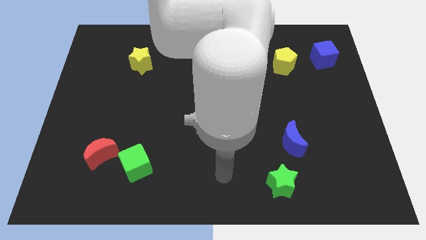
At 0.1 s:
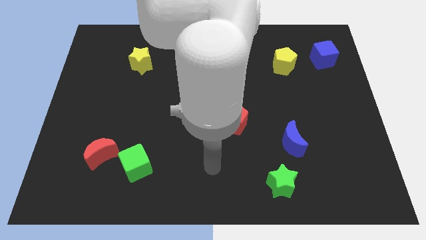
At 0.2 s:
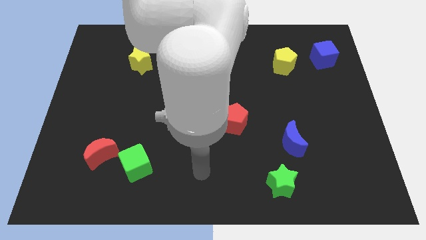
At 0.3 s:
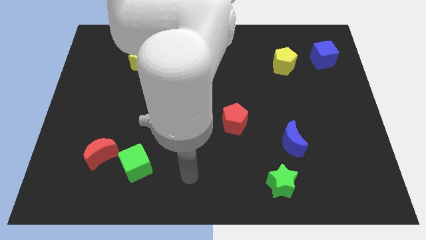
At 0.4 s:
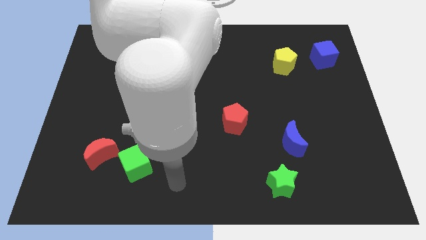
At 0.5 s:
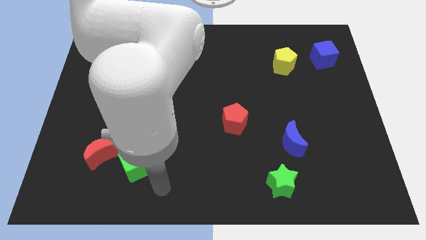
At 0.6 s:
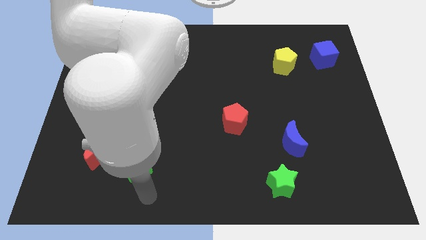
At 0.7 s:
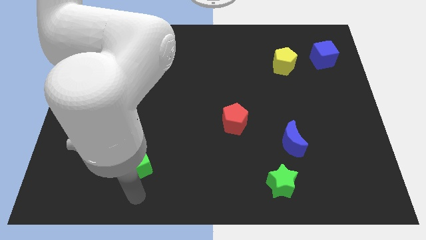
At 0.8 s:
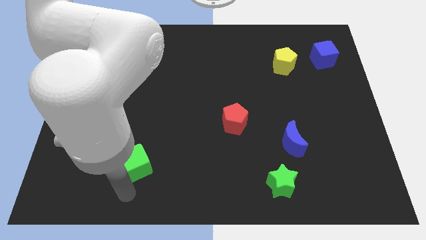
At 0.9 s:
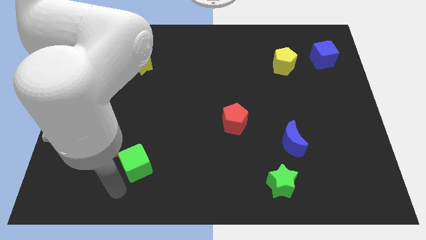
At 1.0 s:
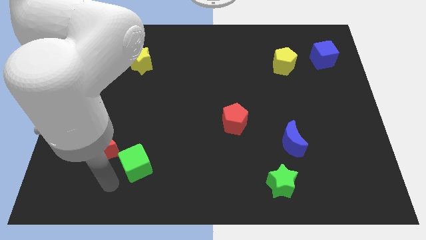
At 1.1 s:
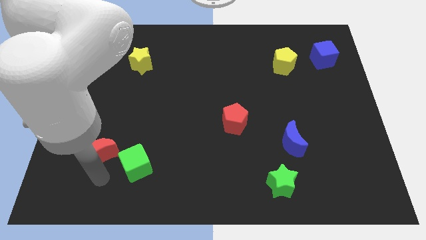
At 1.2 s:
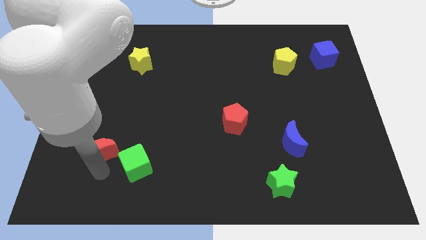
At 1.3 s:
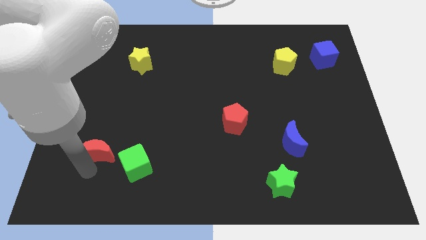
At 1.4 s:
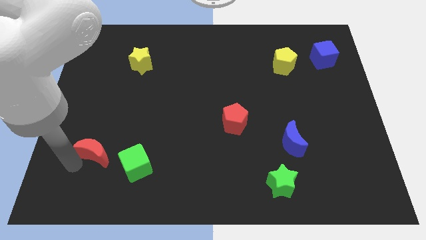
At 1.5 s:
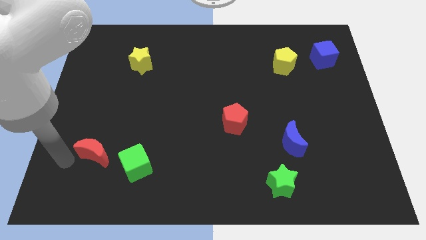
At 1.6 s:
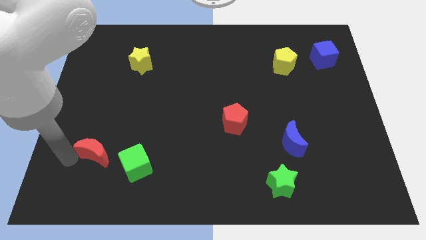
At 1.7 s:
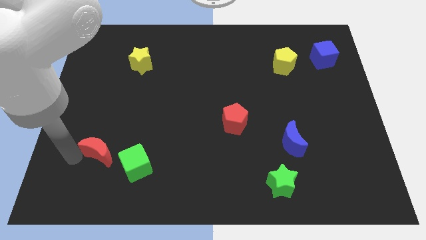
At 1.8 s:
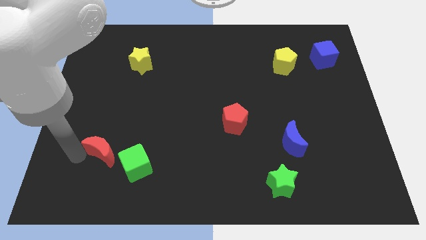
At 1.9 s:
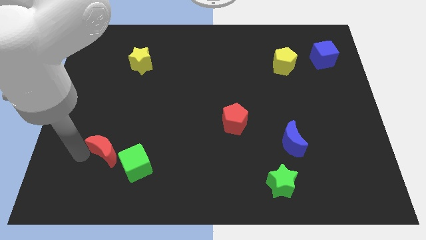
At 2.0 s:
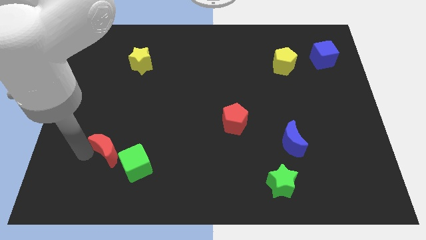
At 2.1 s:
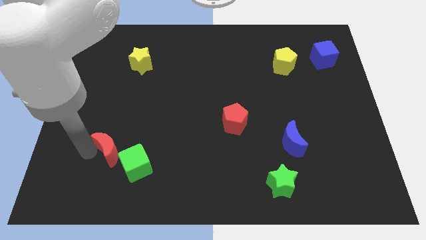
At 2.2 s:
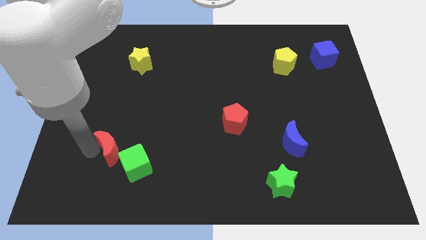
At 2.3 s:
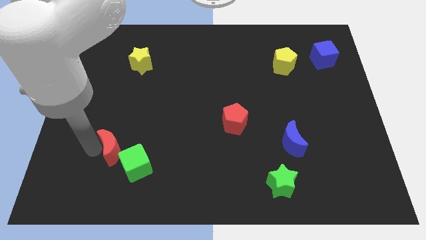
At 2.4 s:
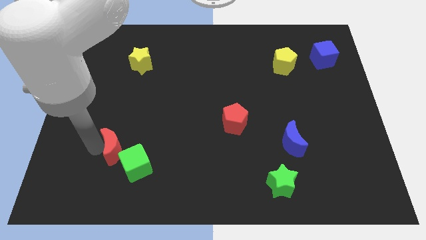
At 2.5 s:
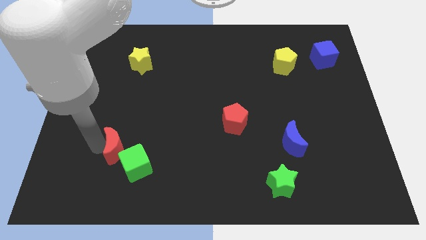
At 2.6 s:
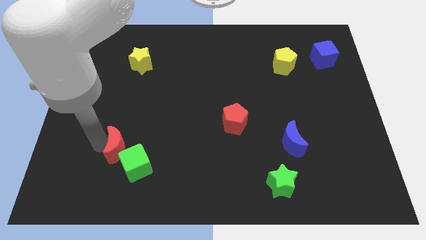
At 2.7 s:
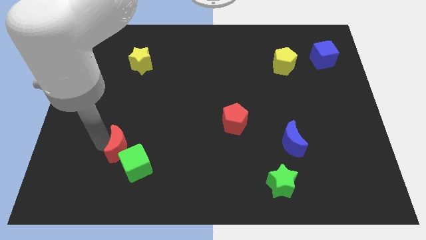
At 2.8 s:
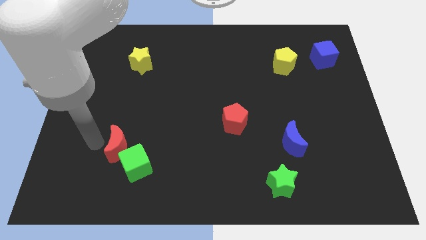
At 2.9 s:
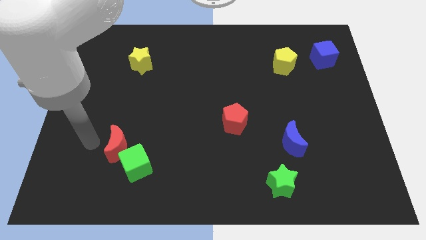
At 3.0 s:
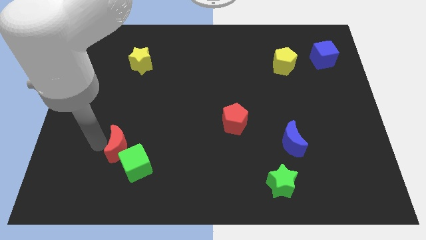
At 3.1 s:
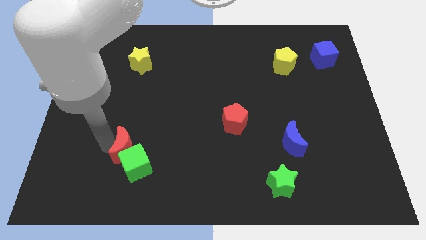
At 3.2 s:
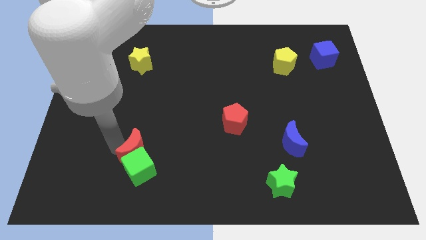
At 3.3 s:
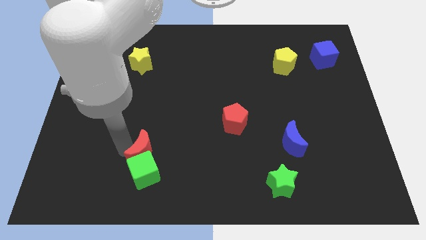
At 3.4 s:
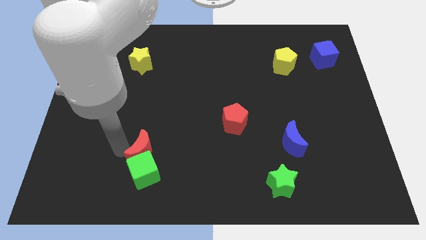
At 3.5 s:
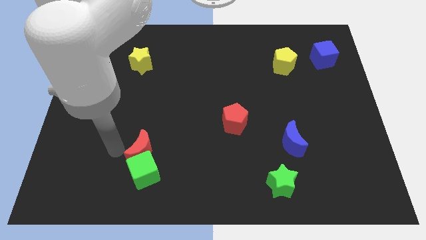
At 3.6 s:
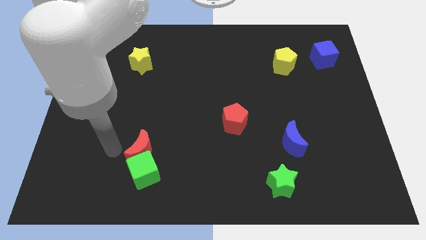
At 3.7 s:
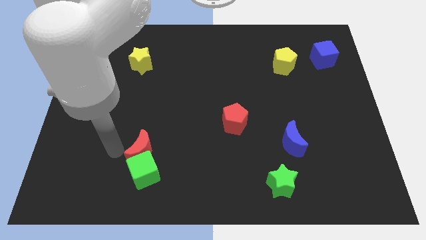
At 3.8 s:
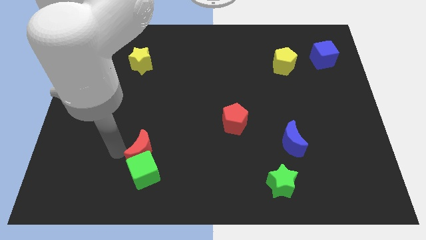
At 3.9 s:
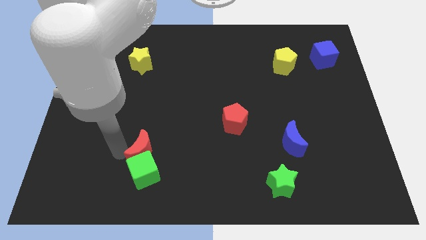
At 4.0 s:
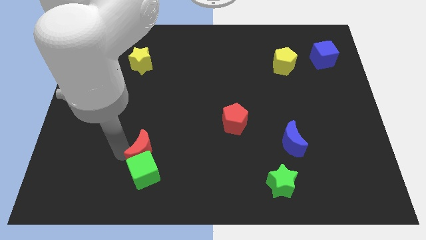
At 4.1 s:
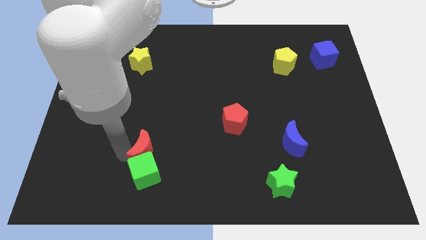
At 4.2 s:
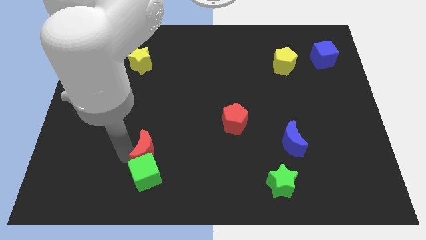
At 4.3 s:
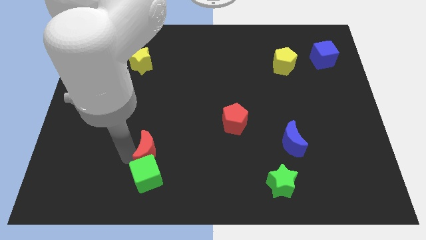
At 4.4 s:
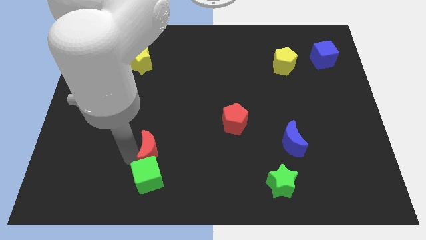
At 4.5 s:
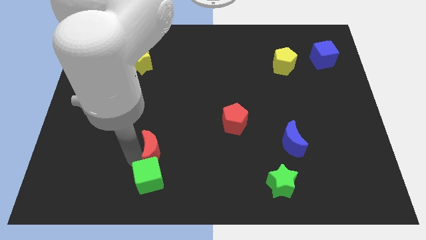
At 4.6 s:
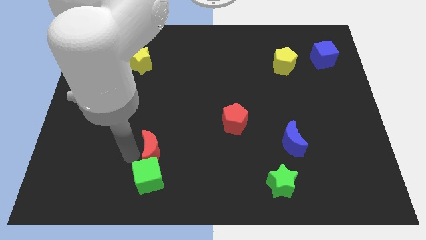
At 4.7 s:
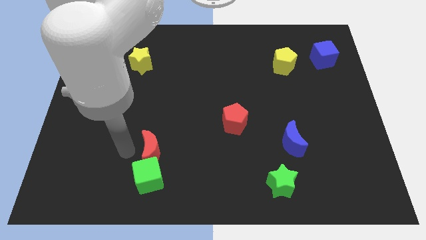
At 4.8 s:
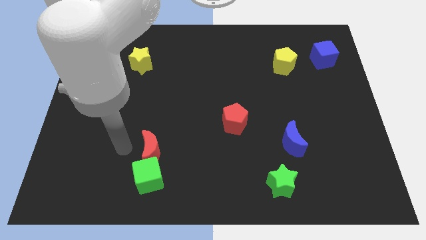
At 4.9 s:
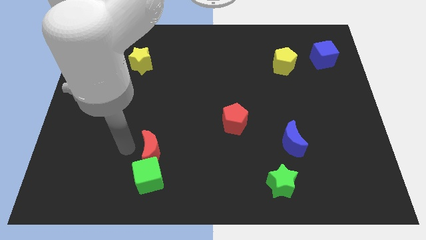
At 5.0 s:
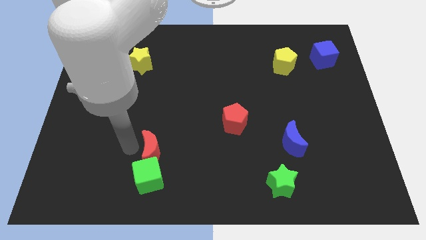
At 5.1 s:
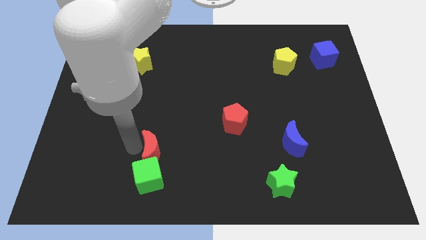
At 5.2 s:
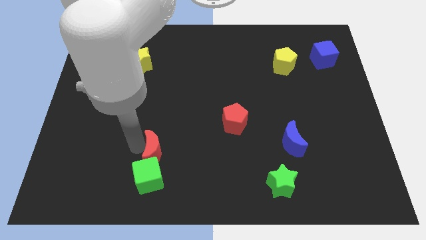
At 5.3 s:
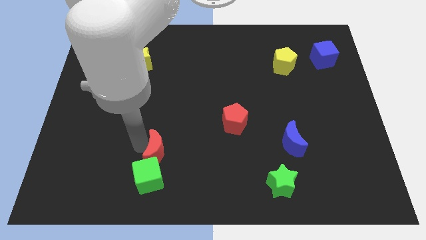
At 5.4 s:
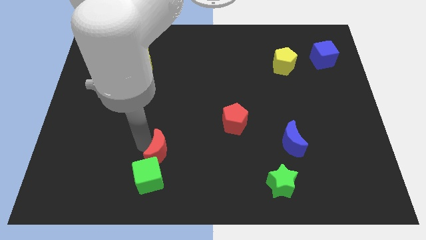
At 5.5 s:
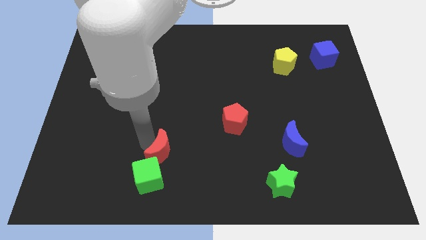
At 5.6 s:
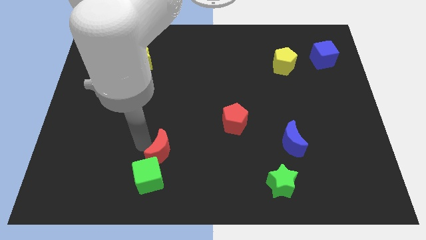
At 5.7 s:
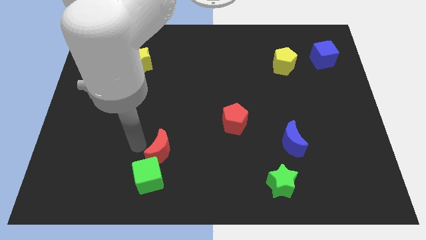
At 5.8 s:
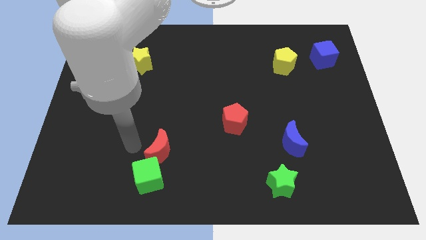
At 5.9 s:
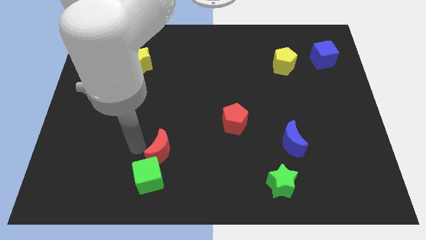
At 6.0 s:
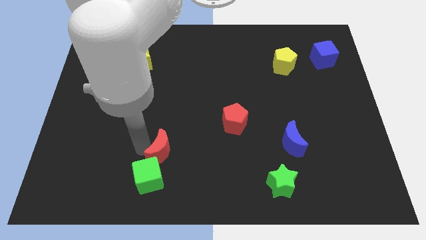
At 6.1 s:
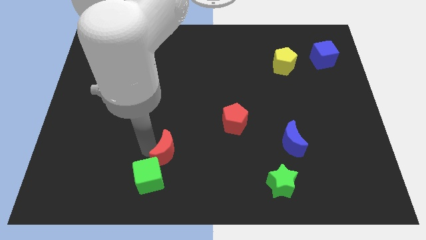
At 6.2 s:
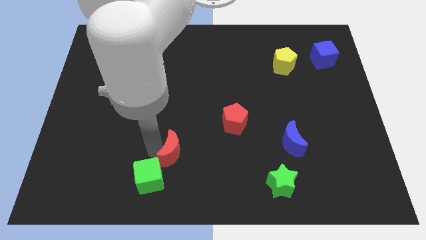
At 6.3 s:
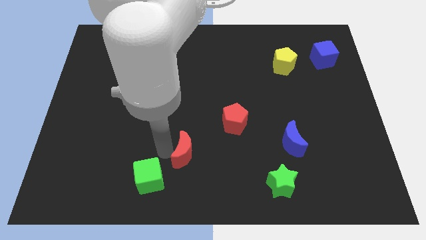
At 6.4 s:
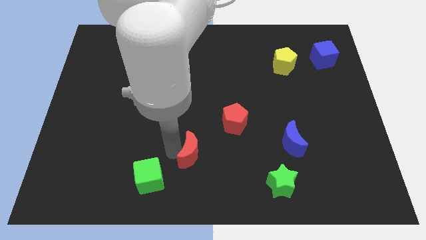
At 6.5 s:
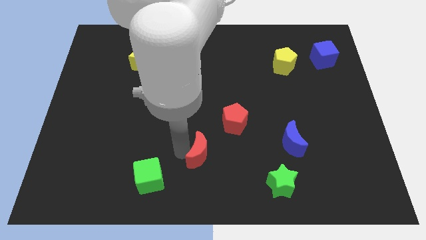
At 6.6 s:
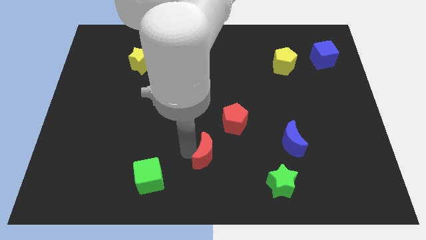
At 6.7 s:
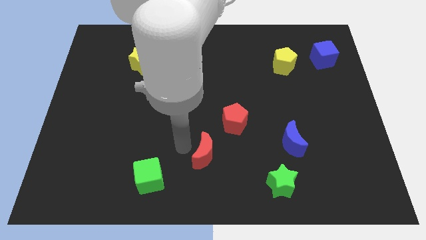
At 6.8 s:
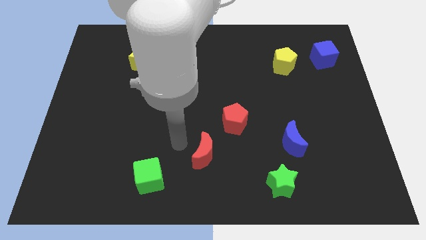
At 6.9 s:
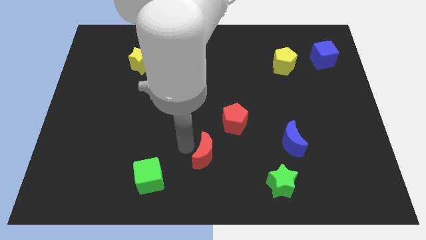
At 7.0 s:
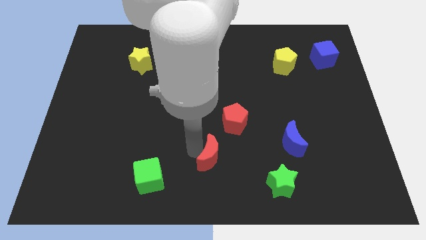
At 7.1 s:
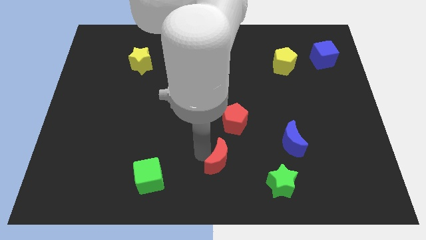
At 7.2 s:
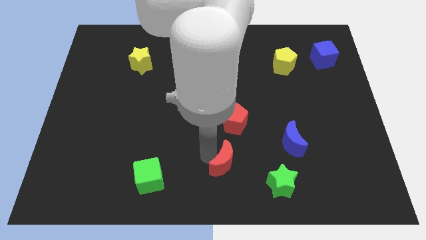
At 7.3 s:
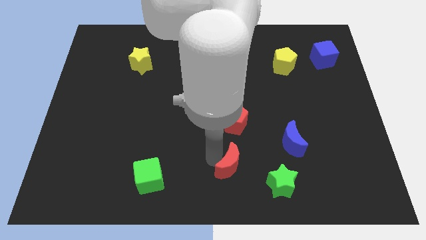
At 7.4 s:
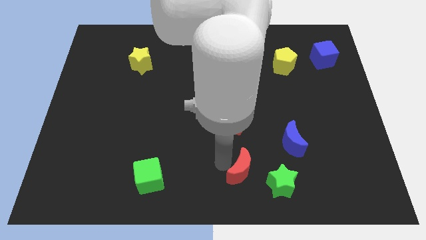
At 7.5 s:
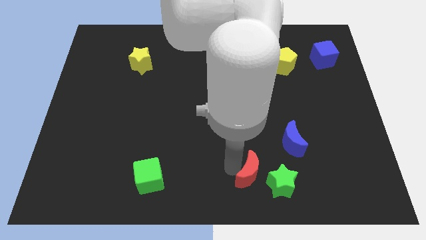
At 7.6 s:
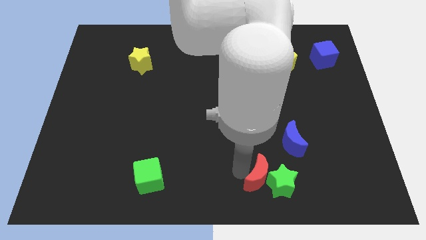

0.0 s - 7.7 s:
push the red moon towards the green star
